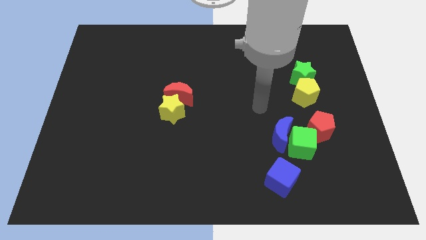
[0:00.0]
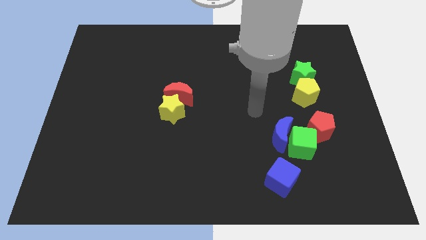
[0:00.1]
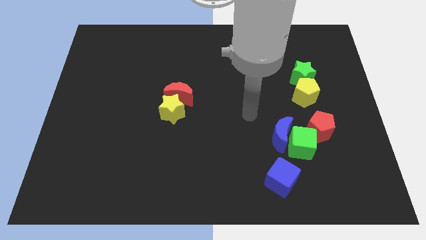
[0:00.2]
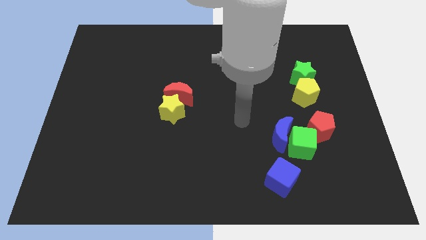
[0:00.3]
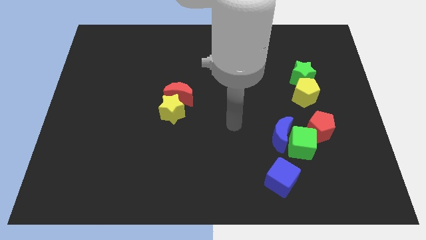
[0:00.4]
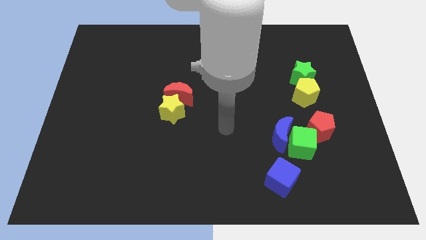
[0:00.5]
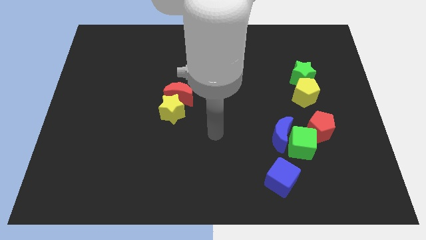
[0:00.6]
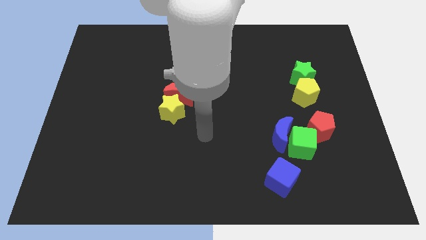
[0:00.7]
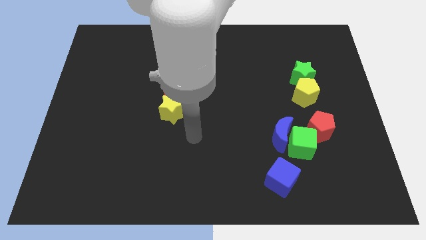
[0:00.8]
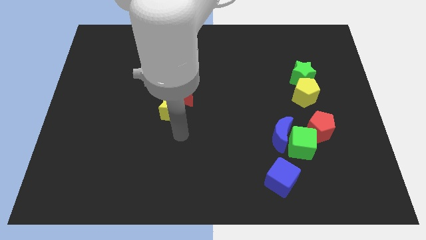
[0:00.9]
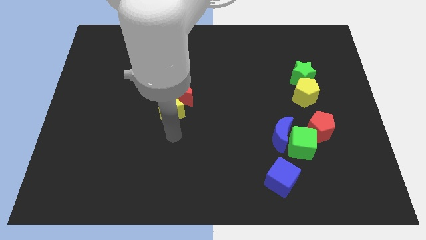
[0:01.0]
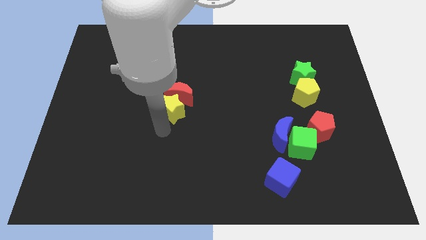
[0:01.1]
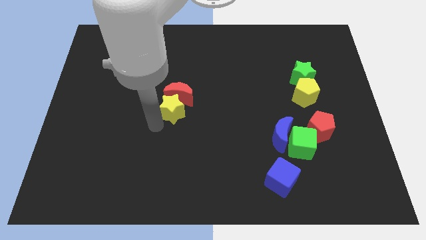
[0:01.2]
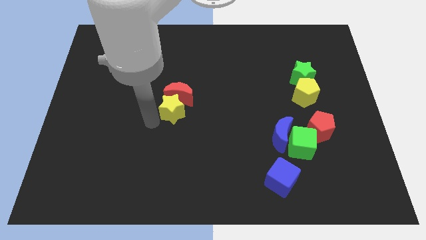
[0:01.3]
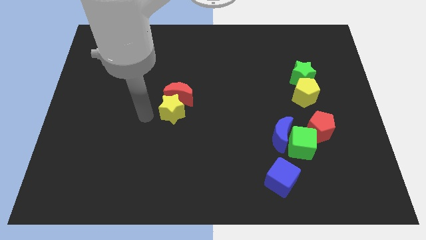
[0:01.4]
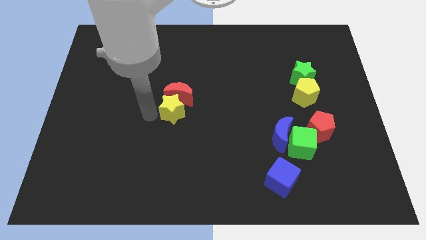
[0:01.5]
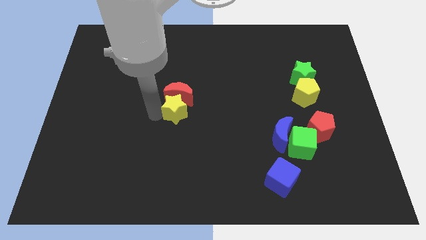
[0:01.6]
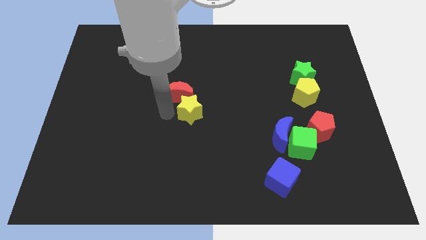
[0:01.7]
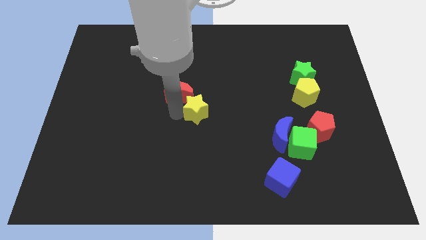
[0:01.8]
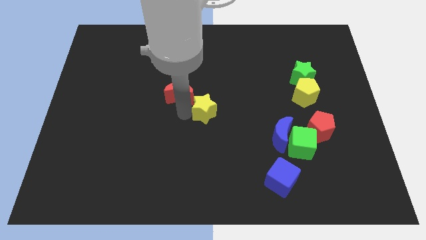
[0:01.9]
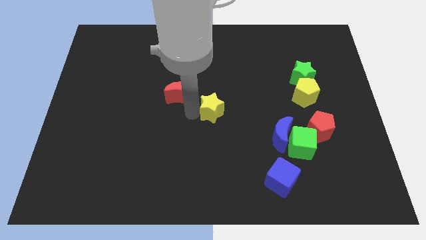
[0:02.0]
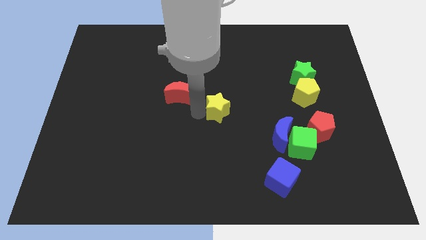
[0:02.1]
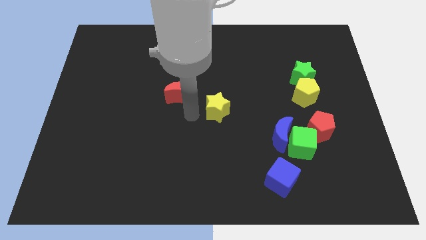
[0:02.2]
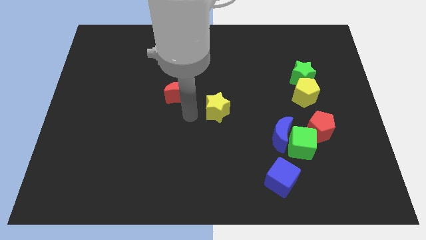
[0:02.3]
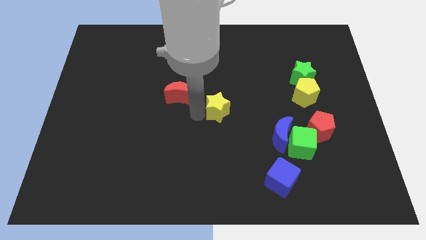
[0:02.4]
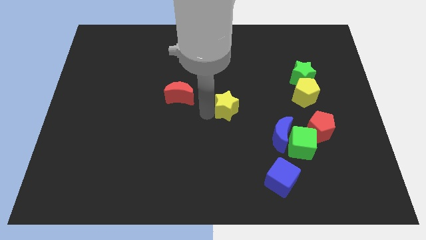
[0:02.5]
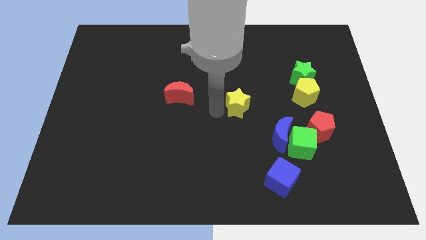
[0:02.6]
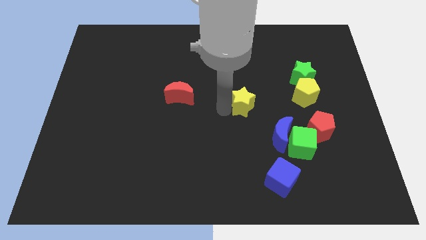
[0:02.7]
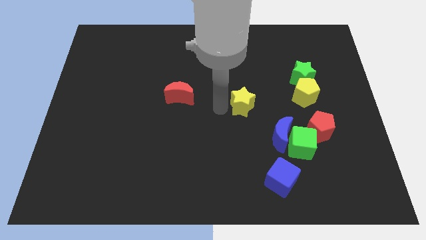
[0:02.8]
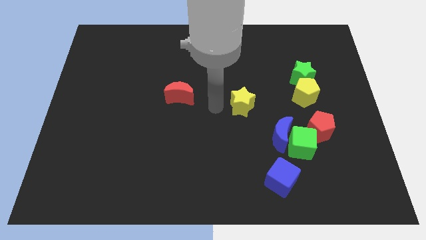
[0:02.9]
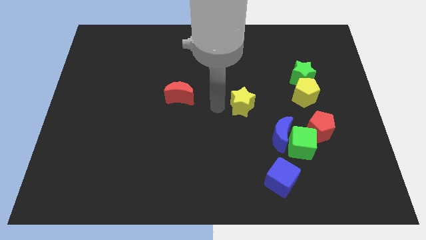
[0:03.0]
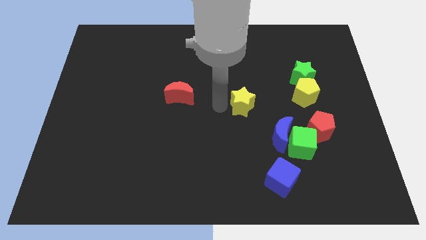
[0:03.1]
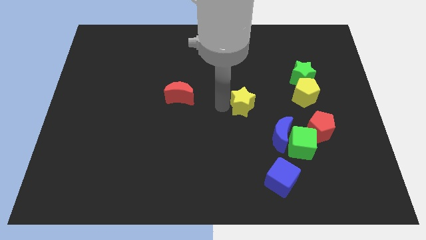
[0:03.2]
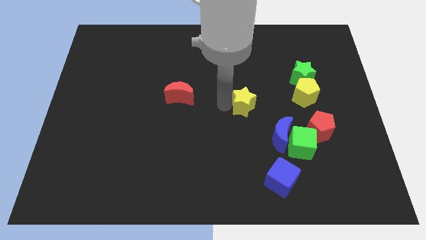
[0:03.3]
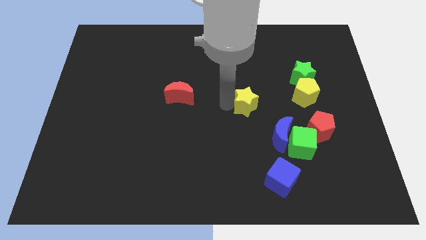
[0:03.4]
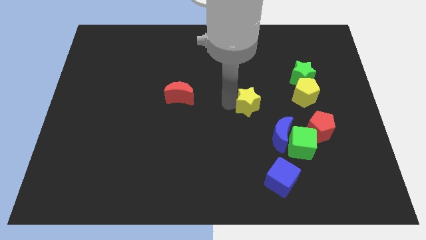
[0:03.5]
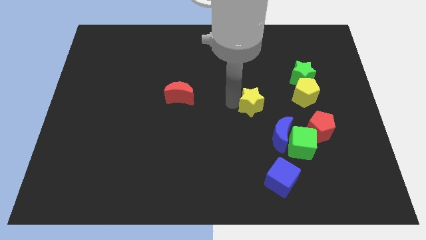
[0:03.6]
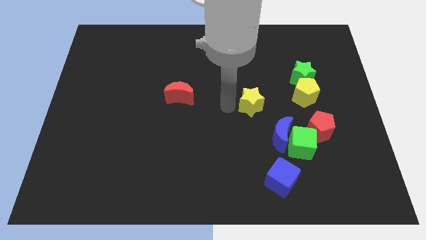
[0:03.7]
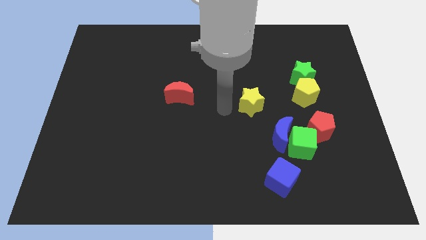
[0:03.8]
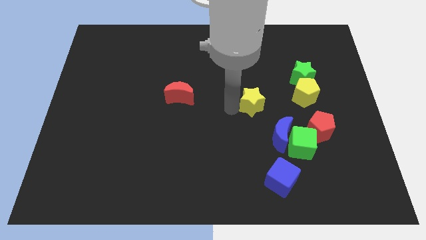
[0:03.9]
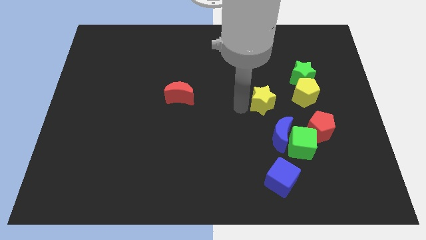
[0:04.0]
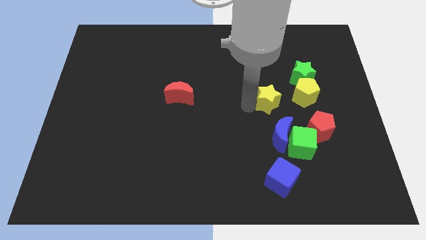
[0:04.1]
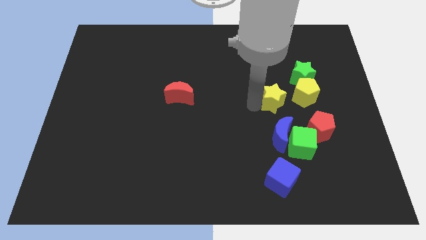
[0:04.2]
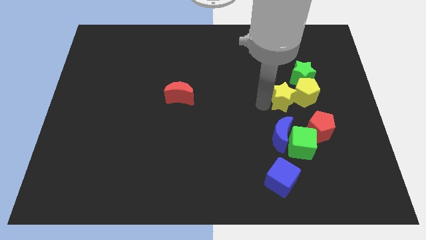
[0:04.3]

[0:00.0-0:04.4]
put the yellow star towards the yellow pentagon

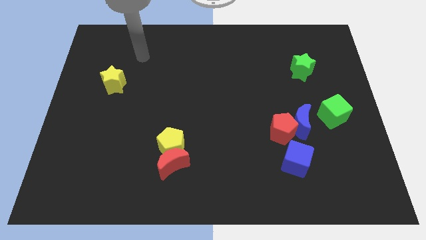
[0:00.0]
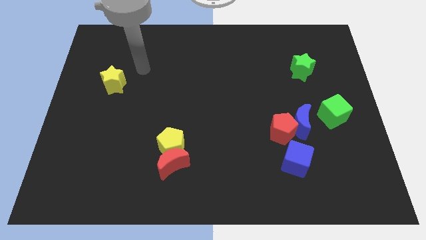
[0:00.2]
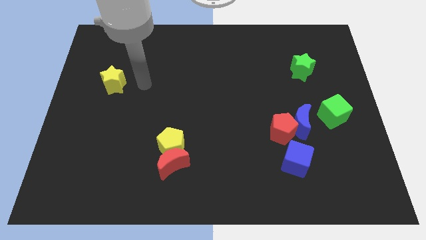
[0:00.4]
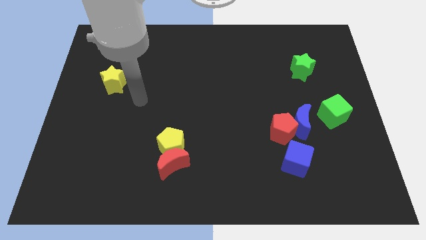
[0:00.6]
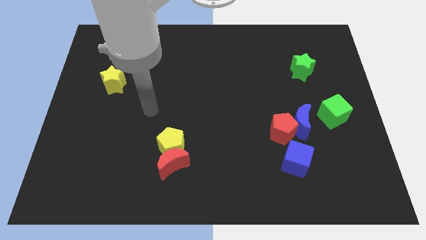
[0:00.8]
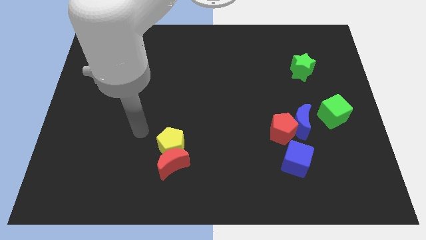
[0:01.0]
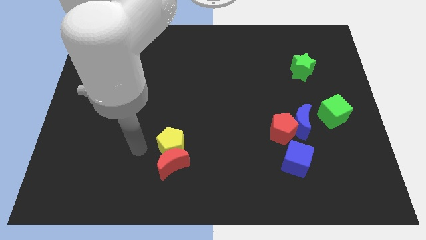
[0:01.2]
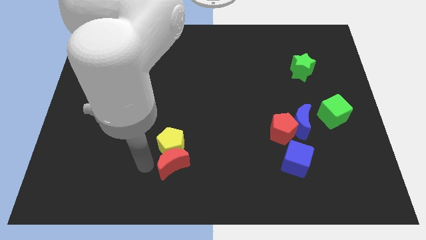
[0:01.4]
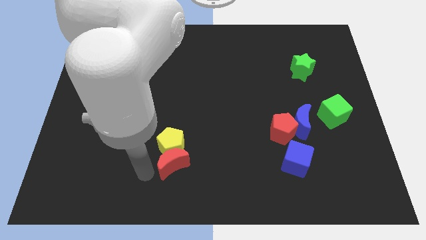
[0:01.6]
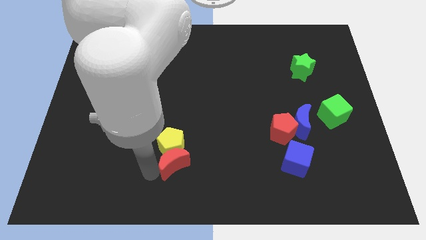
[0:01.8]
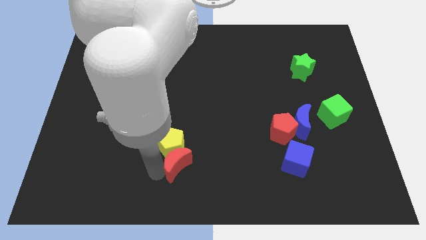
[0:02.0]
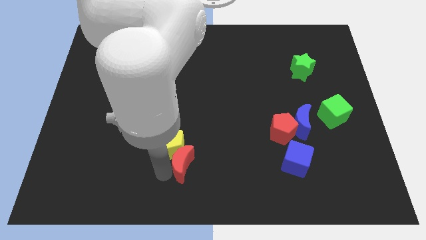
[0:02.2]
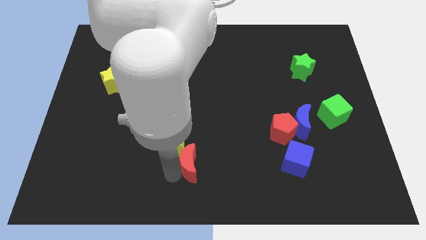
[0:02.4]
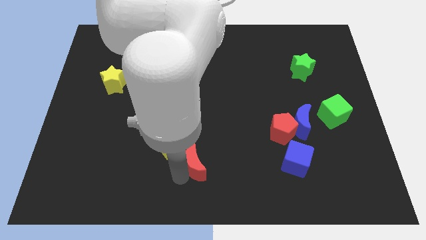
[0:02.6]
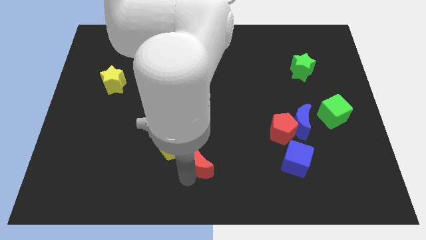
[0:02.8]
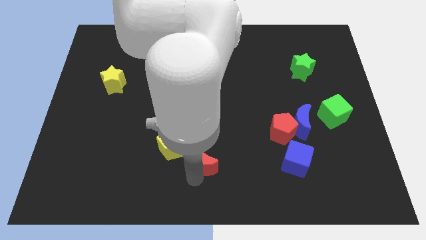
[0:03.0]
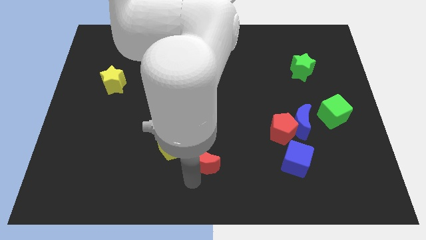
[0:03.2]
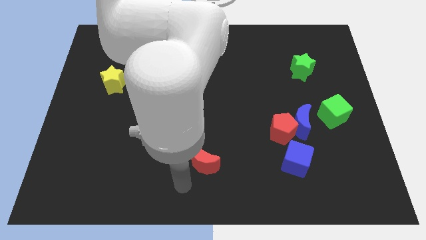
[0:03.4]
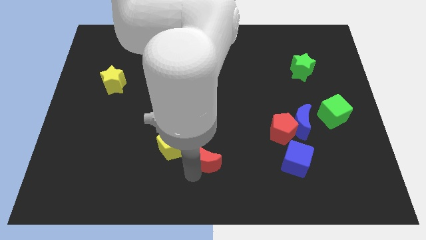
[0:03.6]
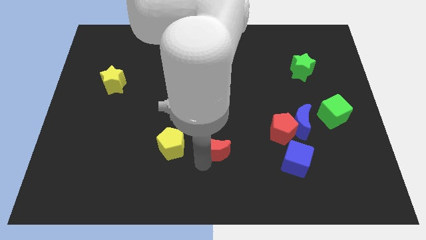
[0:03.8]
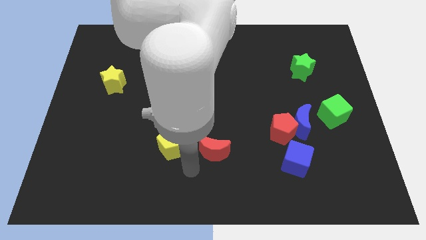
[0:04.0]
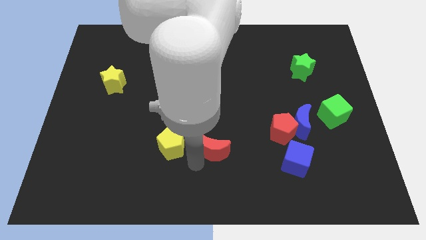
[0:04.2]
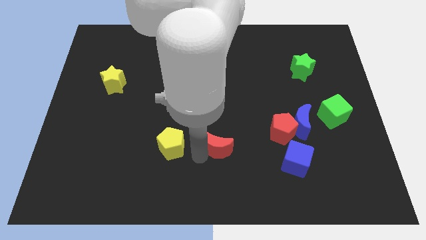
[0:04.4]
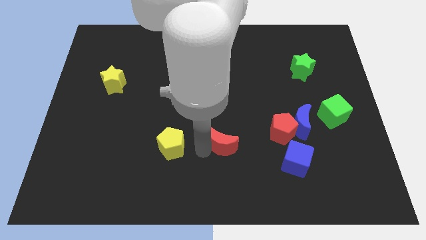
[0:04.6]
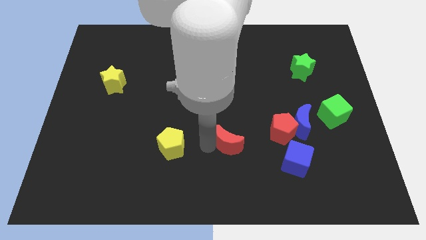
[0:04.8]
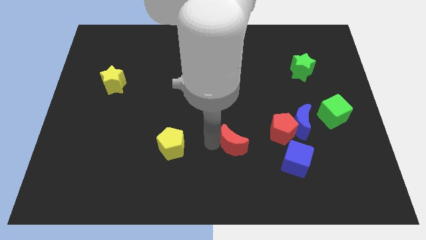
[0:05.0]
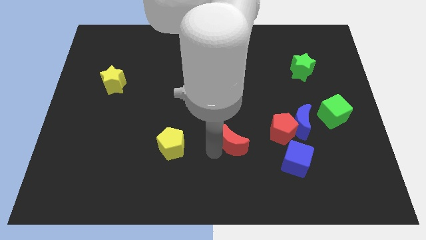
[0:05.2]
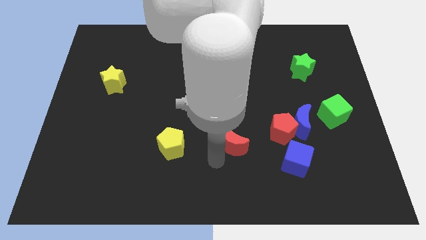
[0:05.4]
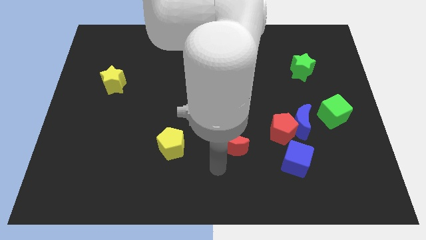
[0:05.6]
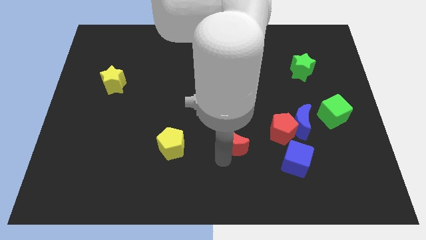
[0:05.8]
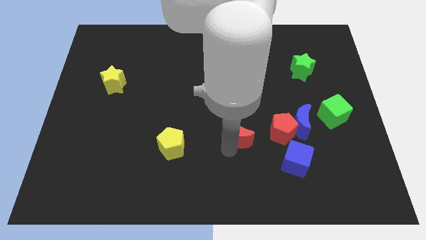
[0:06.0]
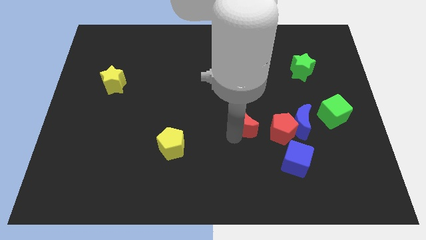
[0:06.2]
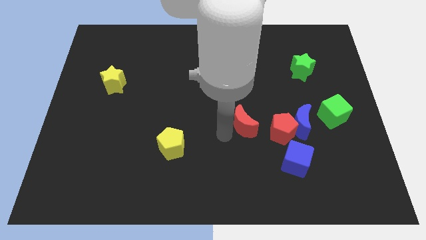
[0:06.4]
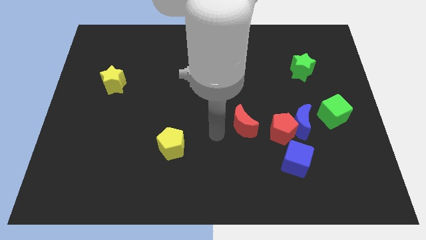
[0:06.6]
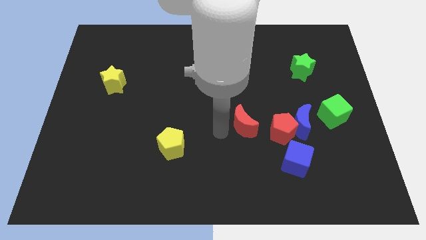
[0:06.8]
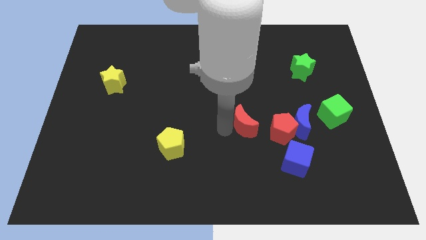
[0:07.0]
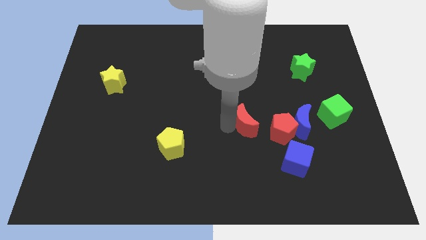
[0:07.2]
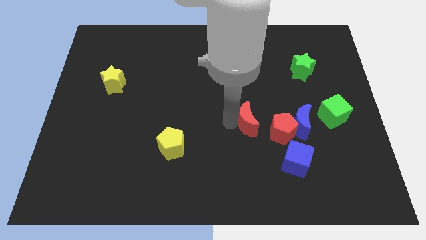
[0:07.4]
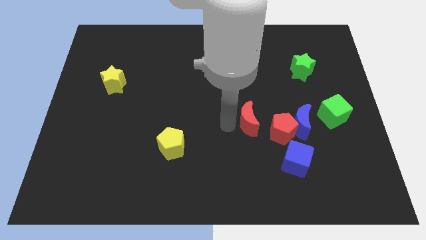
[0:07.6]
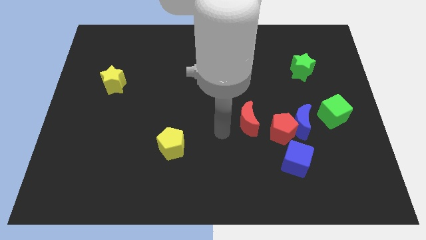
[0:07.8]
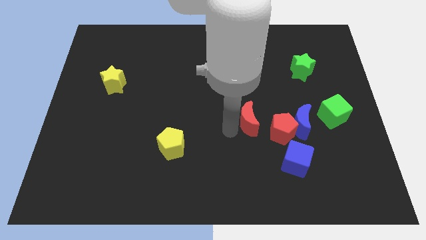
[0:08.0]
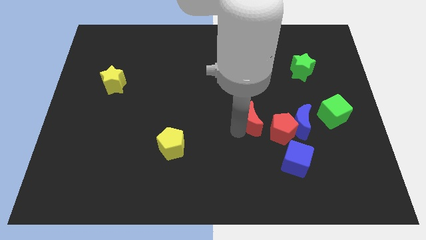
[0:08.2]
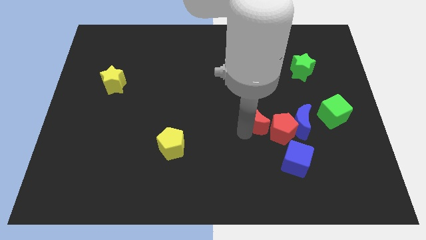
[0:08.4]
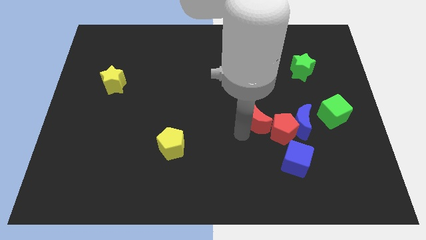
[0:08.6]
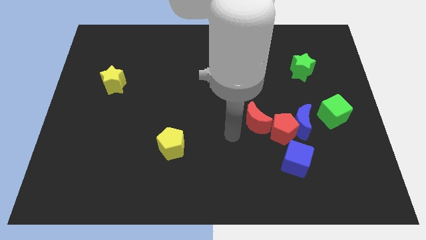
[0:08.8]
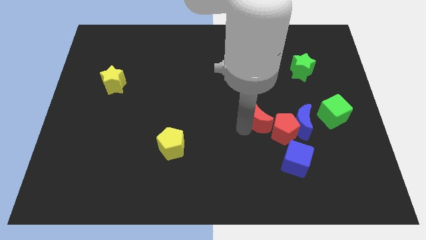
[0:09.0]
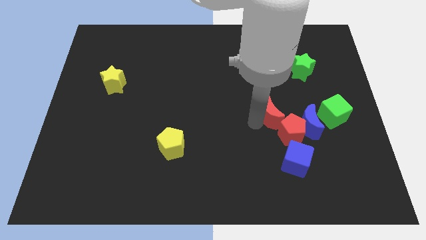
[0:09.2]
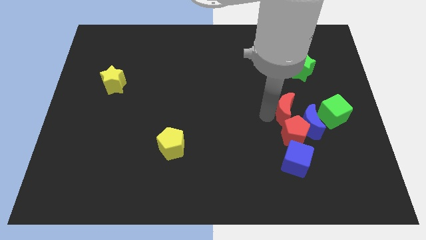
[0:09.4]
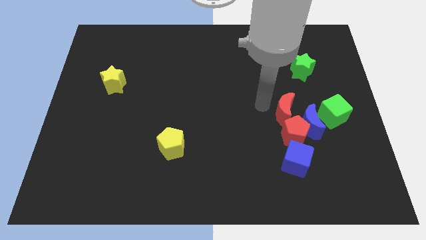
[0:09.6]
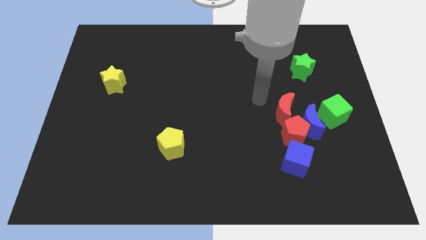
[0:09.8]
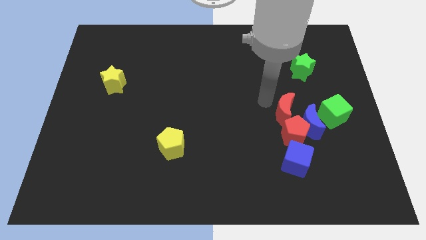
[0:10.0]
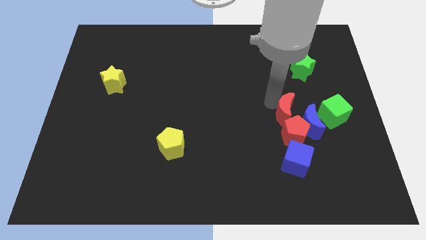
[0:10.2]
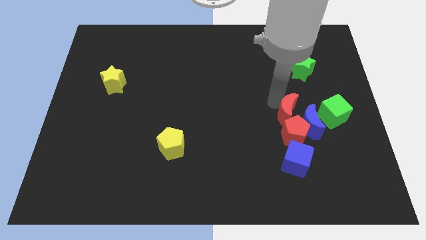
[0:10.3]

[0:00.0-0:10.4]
put the red moon to the blue moon
